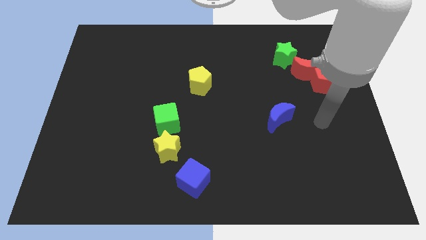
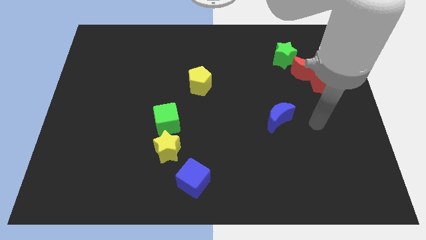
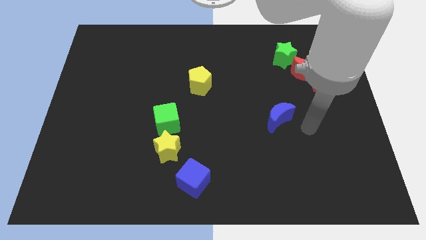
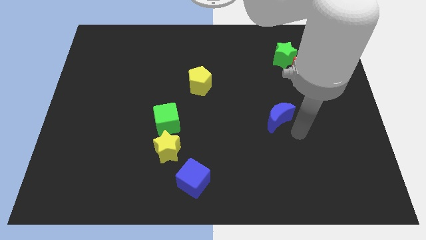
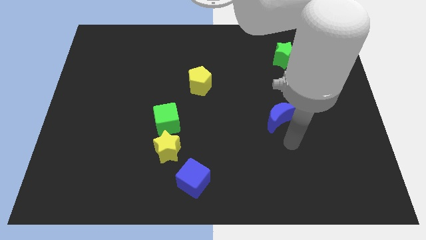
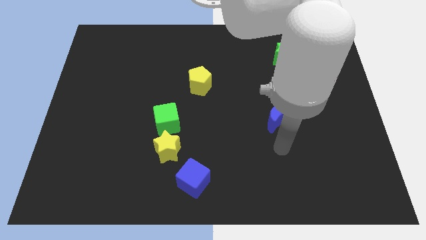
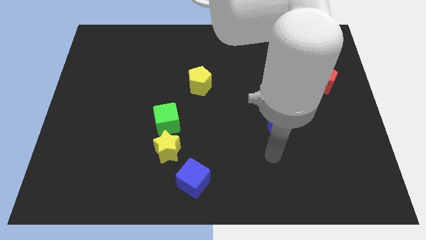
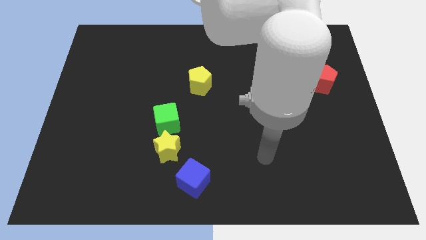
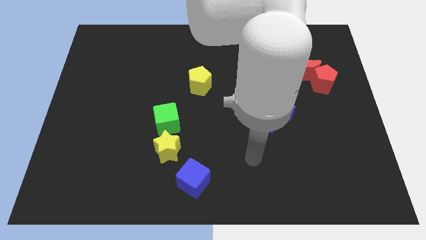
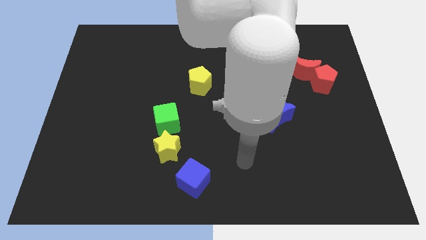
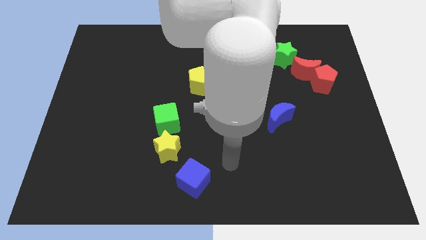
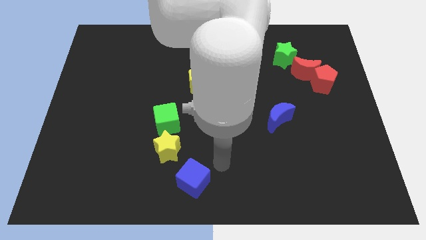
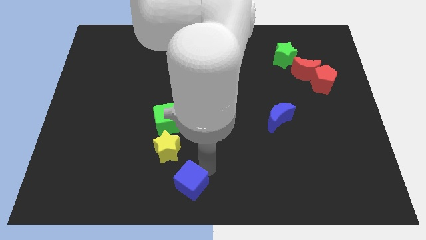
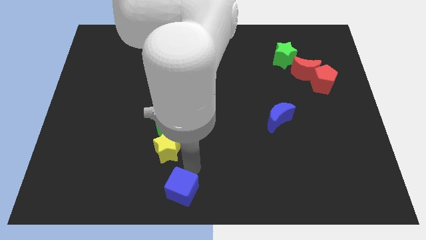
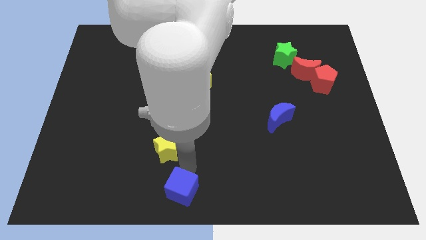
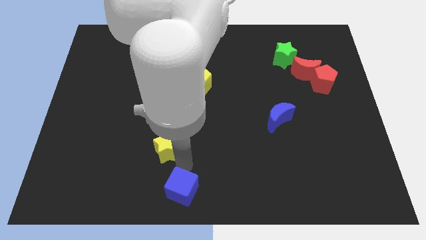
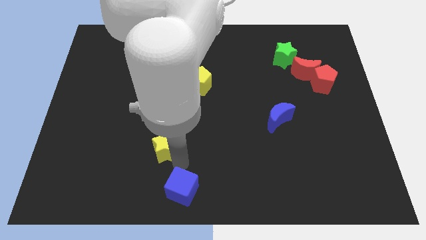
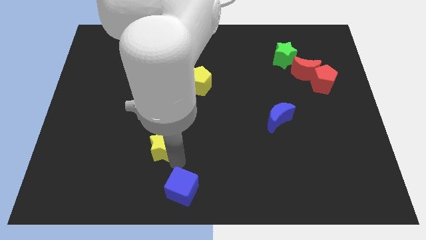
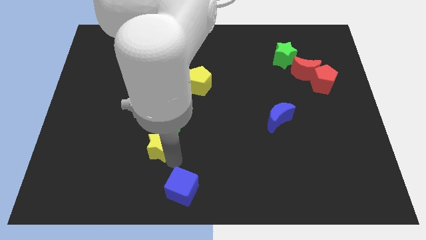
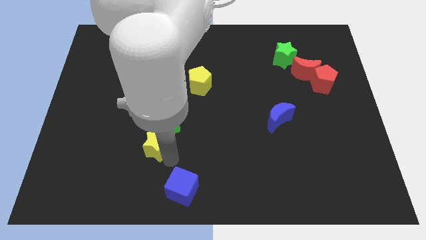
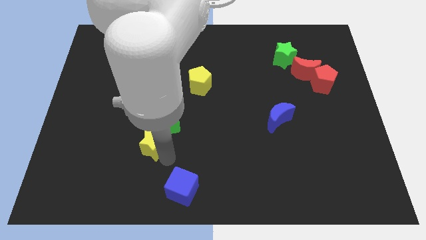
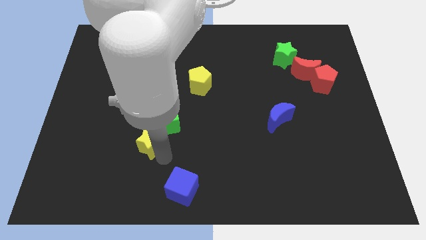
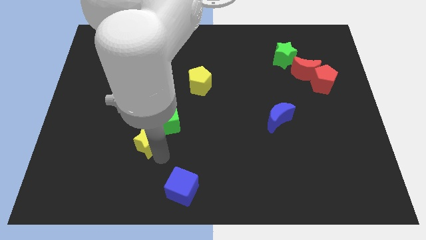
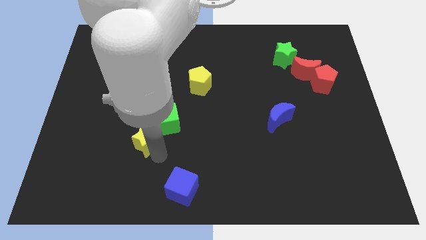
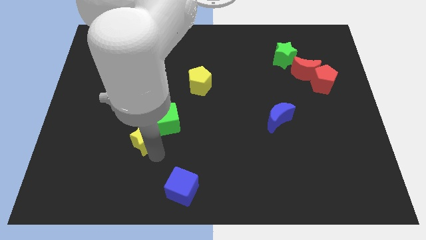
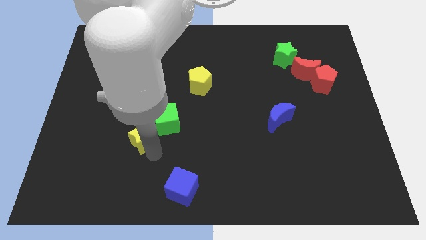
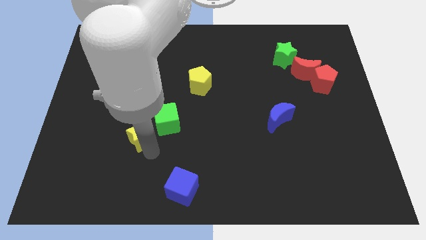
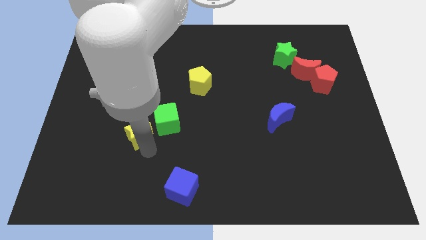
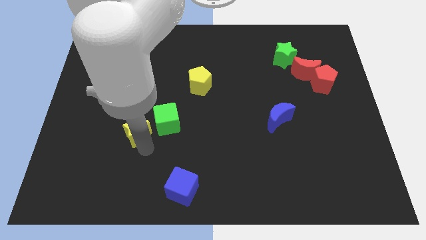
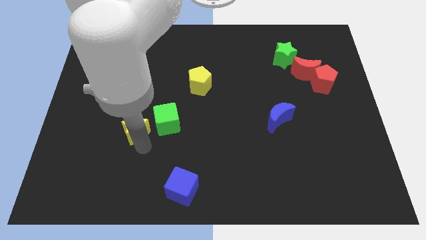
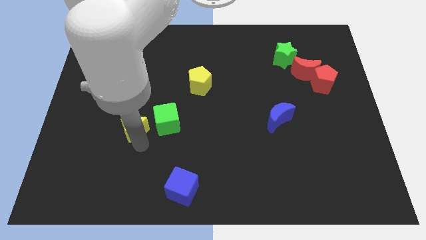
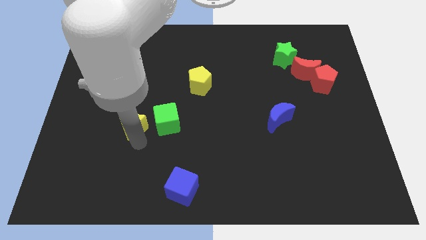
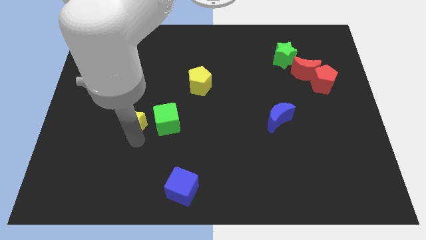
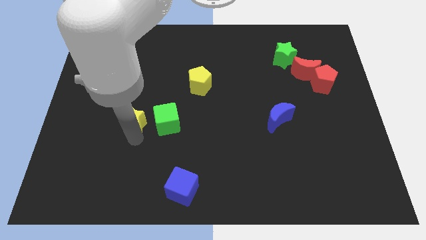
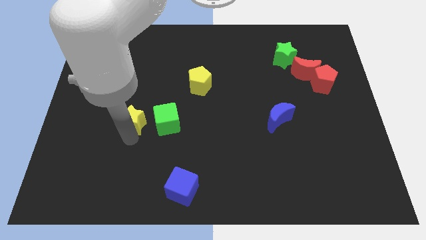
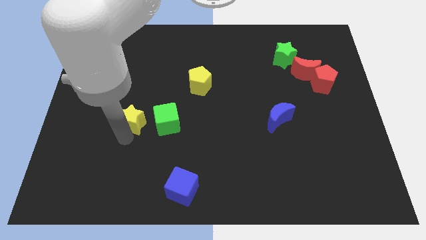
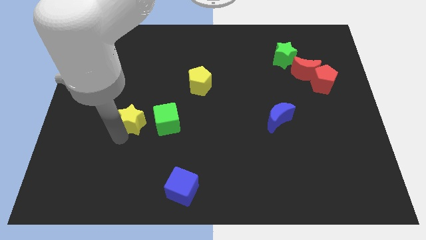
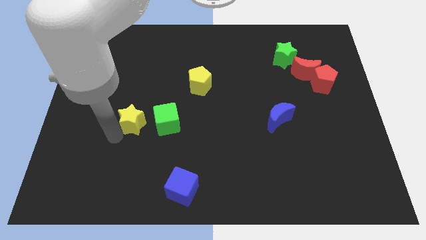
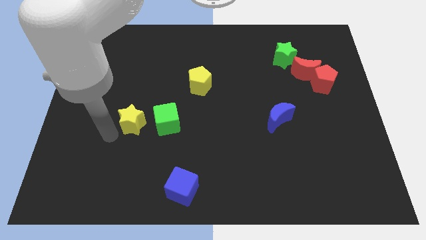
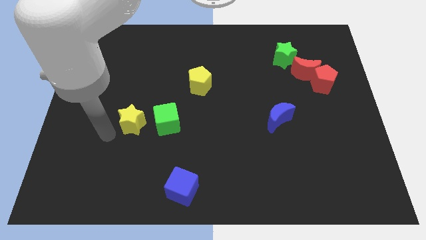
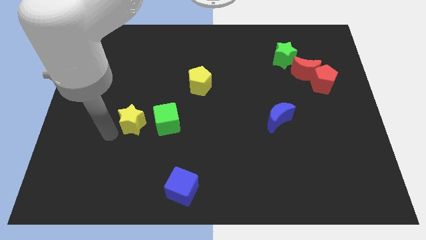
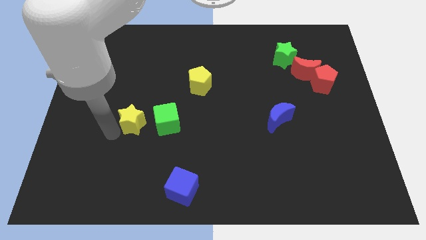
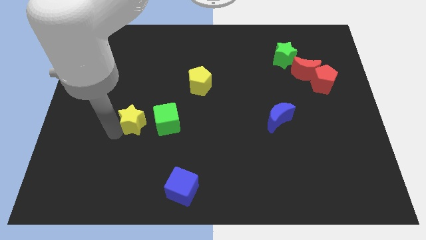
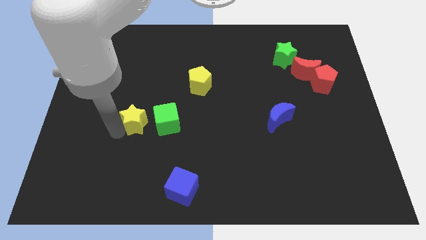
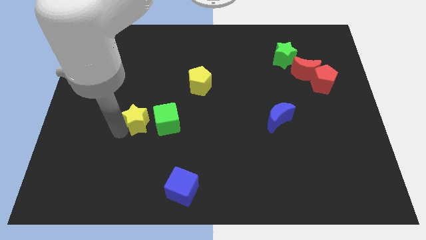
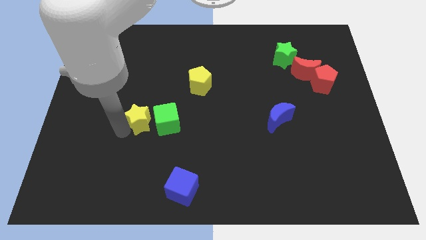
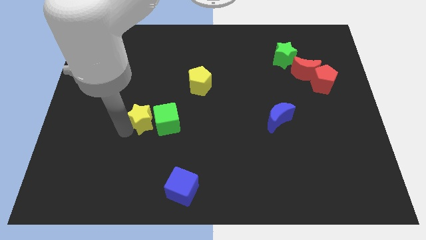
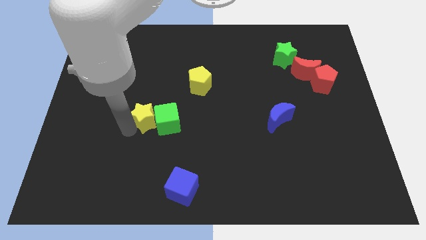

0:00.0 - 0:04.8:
slightly slide the yellow star up

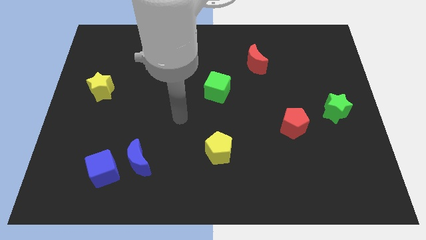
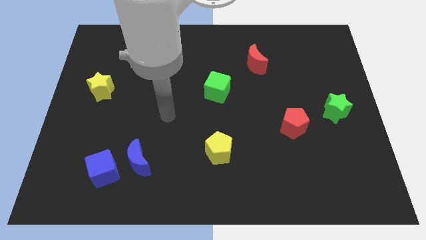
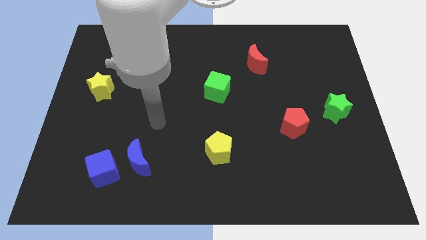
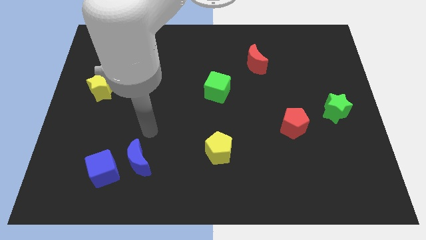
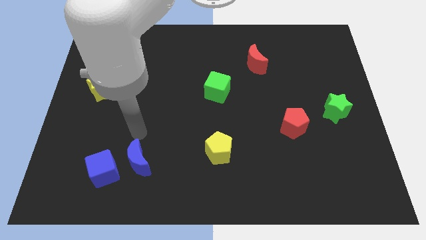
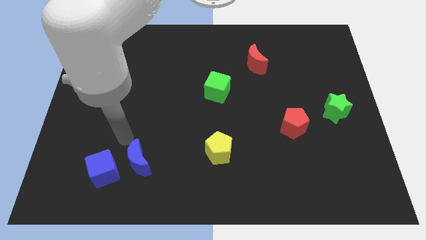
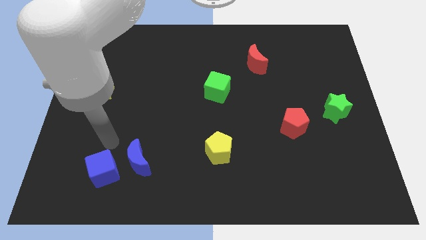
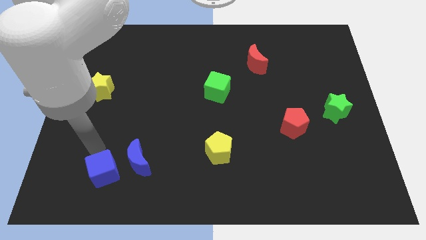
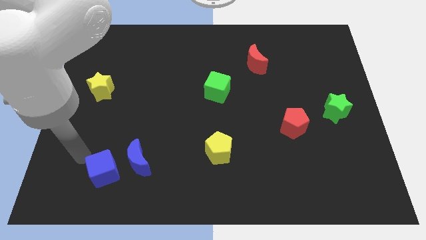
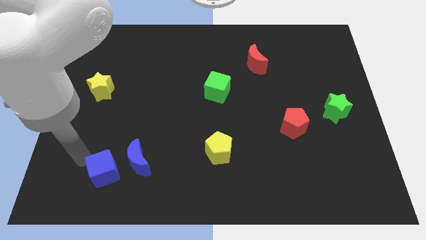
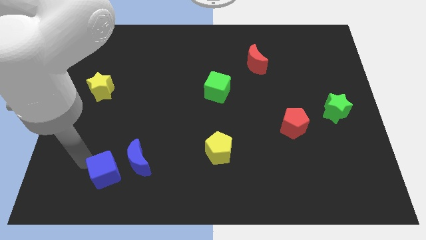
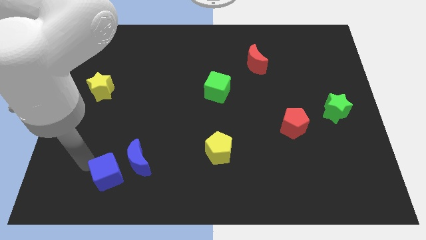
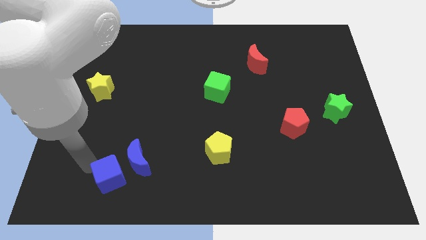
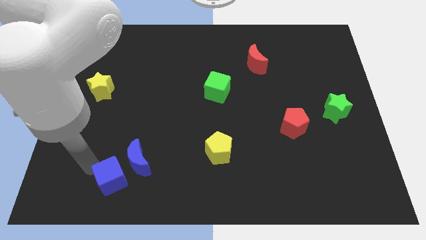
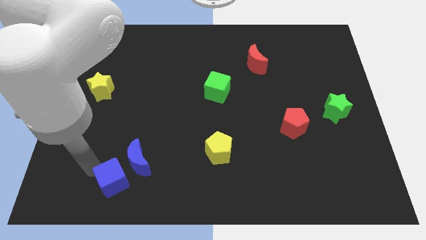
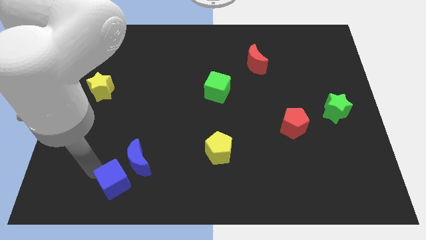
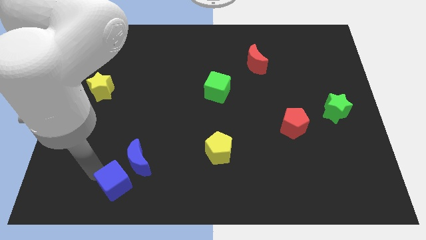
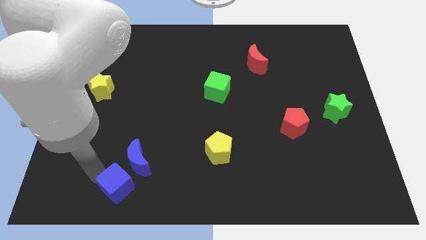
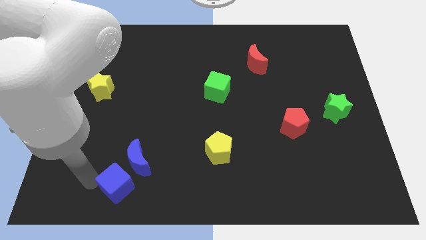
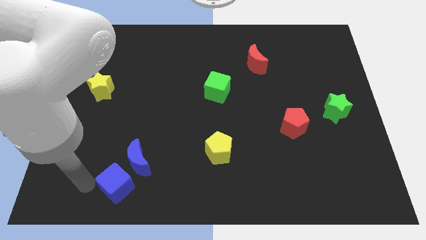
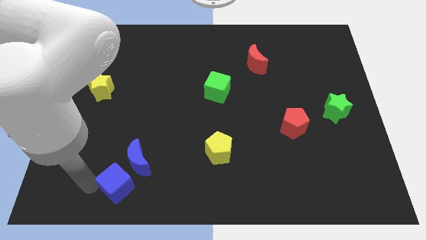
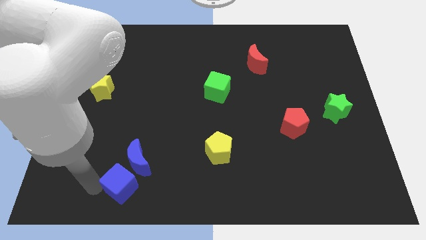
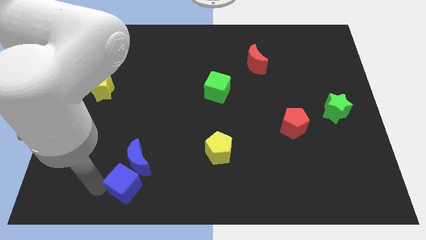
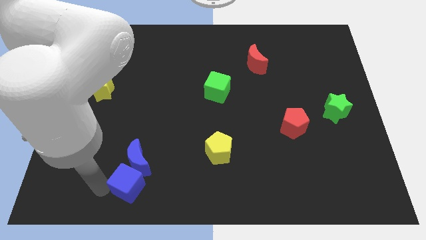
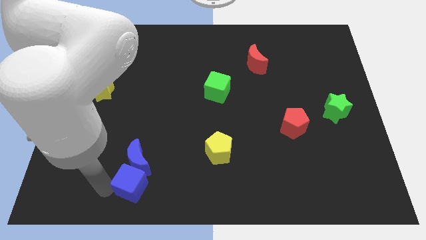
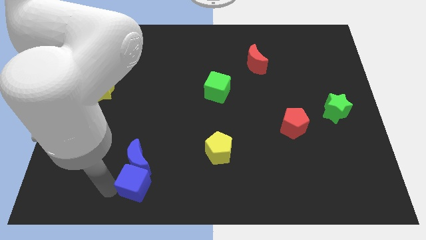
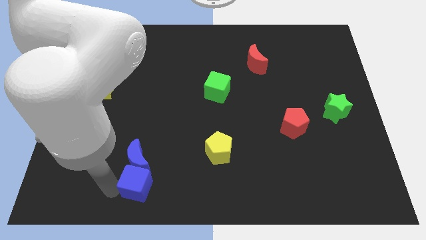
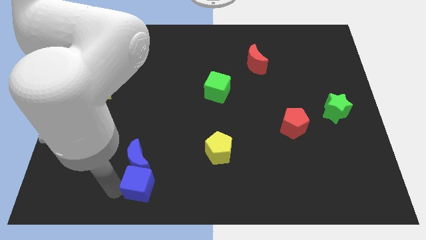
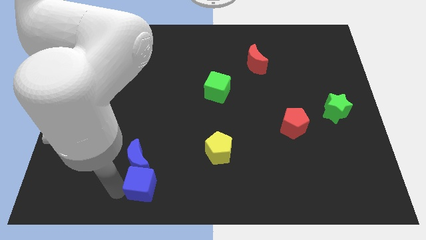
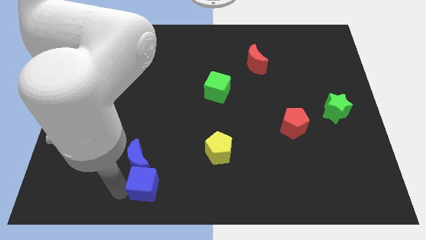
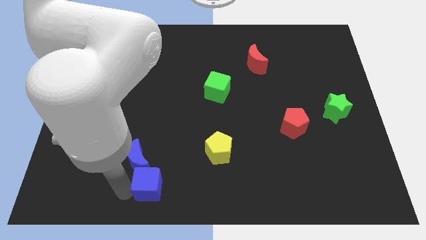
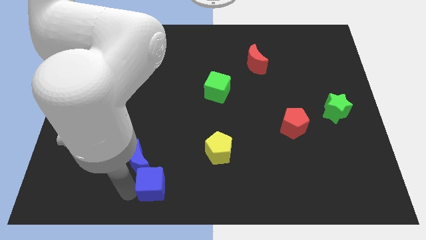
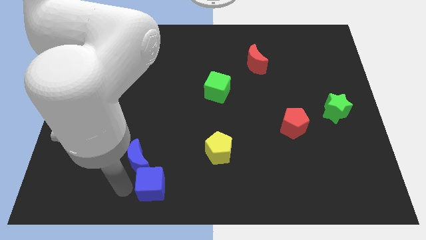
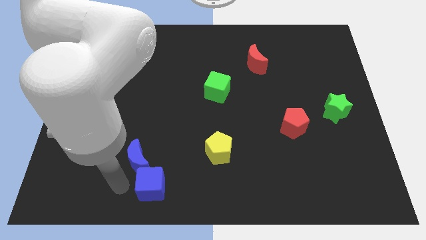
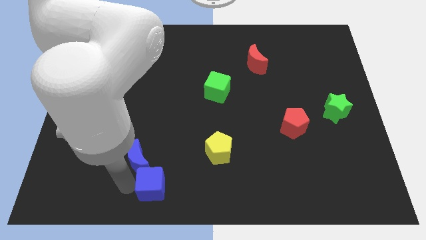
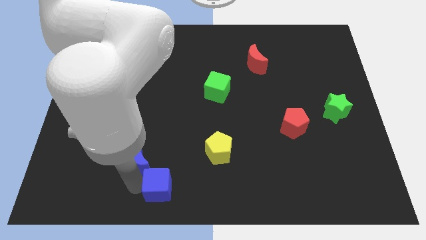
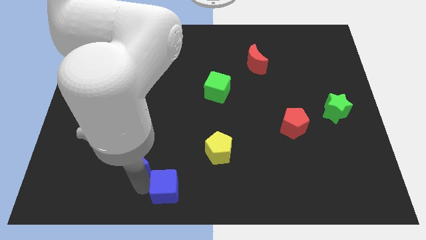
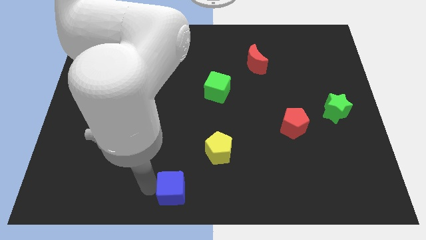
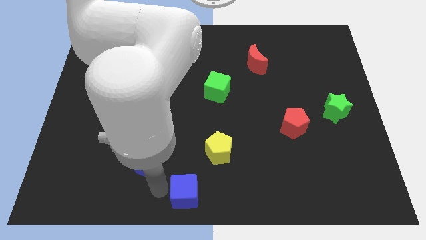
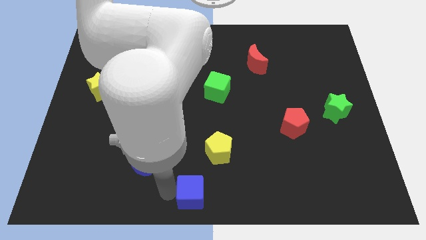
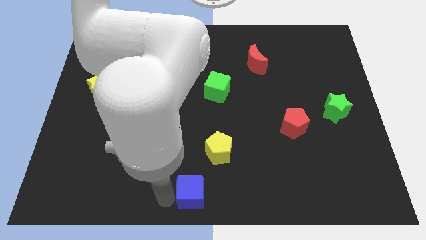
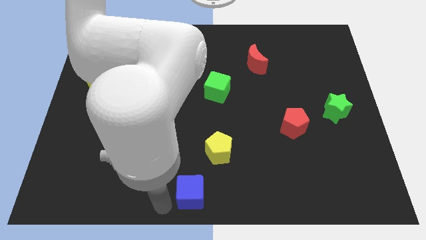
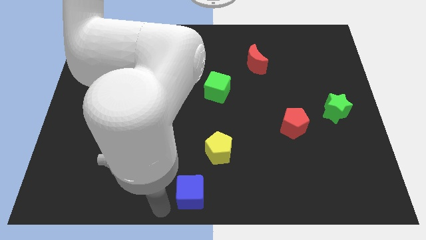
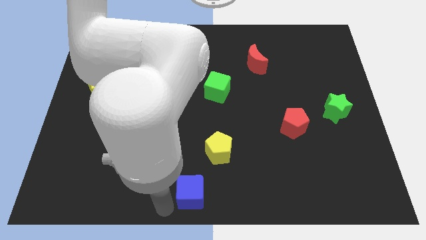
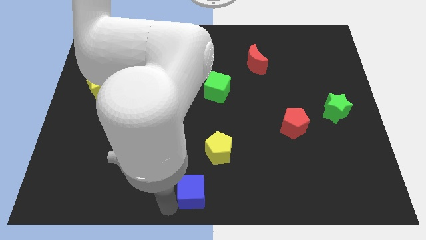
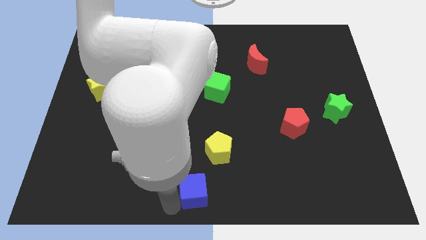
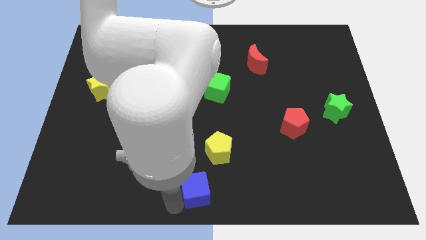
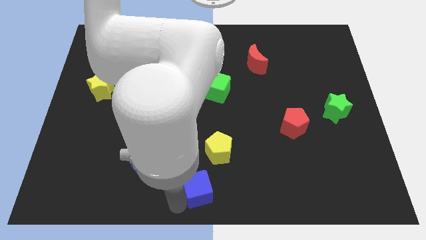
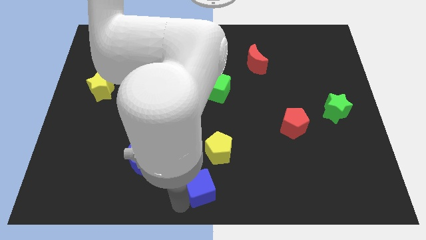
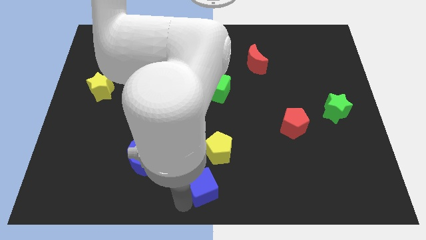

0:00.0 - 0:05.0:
slide the blue cube right
